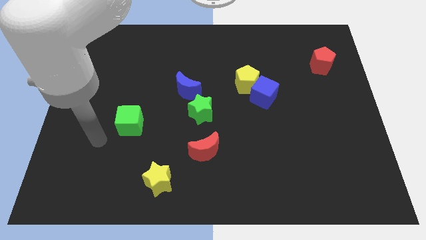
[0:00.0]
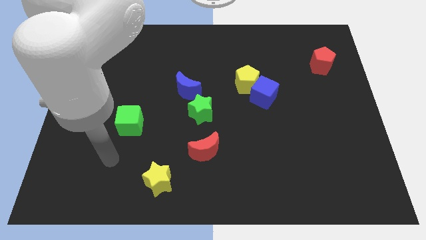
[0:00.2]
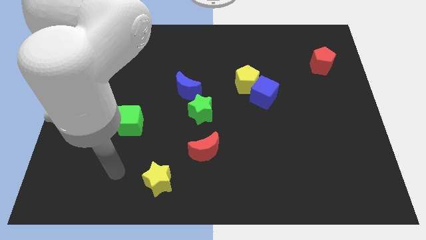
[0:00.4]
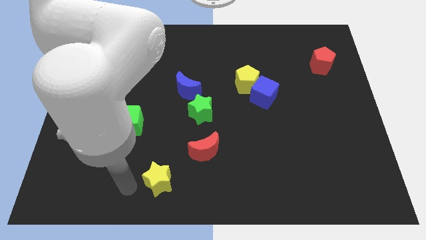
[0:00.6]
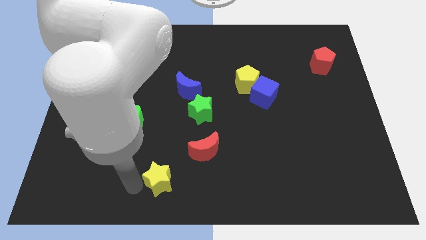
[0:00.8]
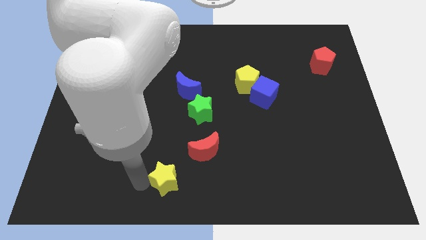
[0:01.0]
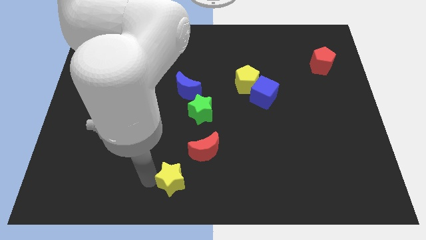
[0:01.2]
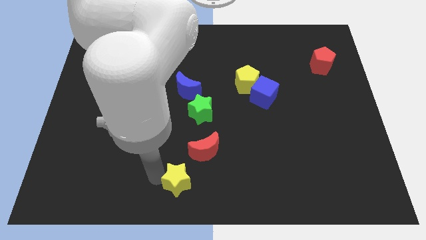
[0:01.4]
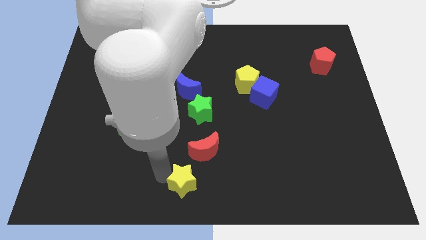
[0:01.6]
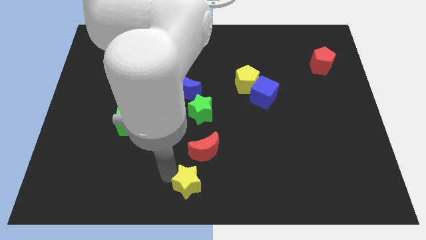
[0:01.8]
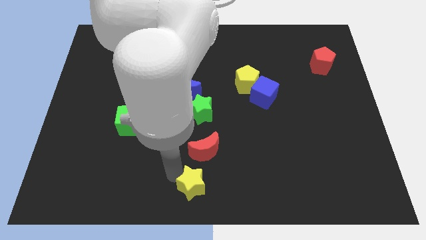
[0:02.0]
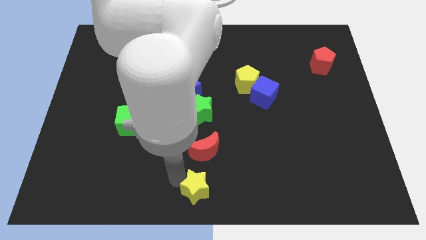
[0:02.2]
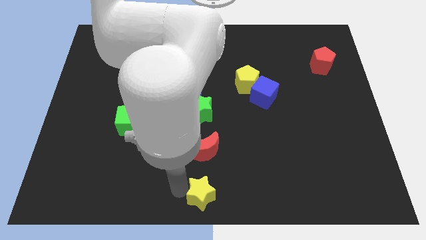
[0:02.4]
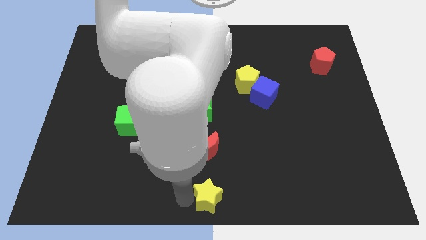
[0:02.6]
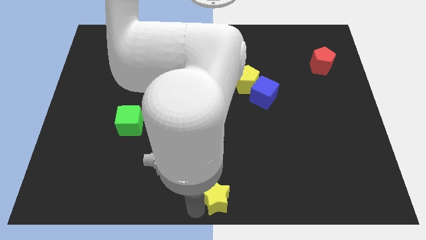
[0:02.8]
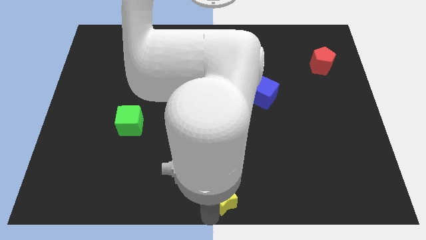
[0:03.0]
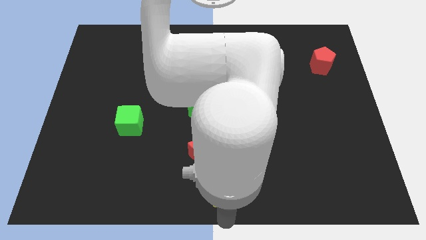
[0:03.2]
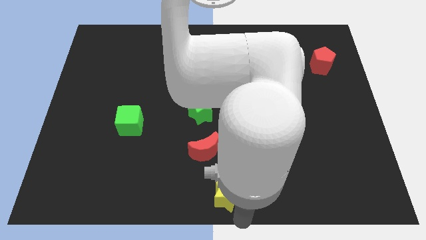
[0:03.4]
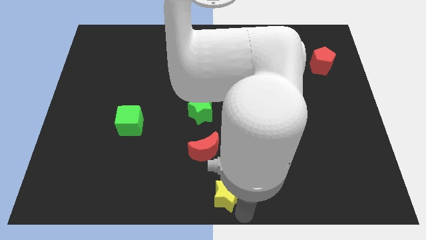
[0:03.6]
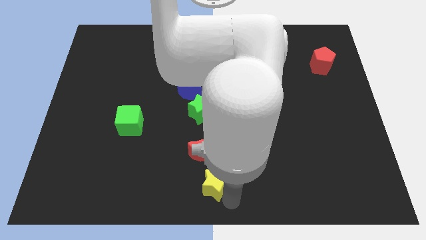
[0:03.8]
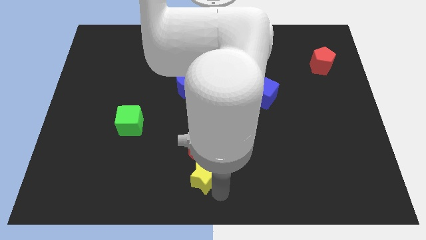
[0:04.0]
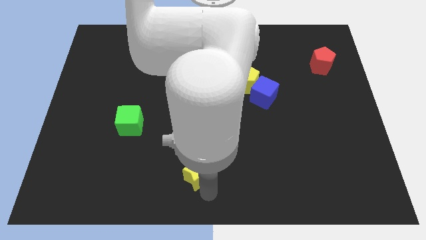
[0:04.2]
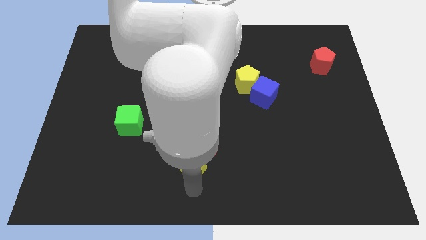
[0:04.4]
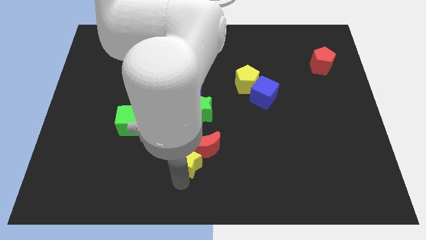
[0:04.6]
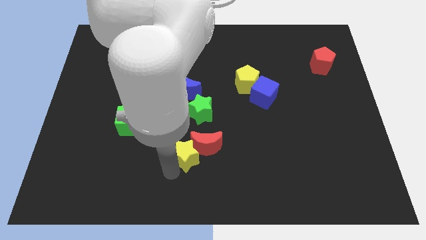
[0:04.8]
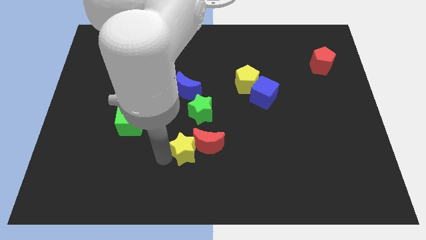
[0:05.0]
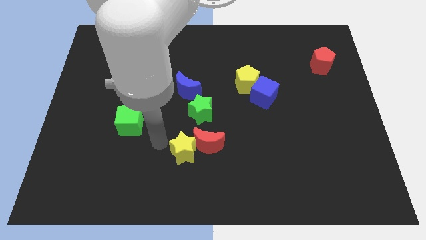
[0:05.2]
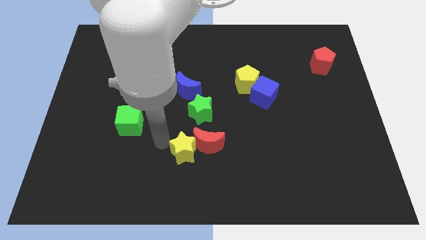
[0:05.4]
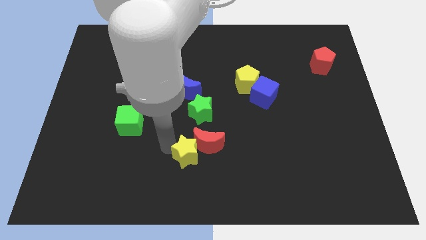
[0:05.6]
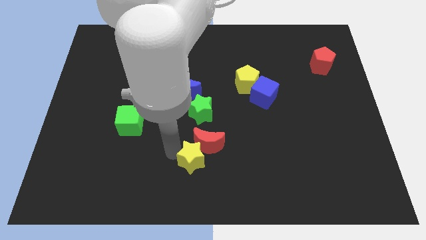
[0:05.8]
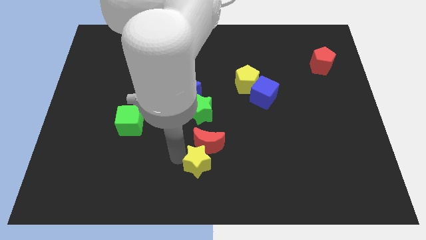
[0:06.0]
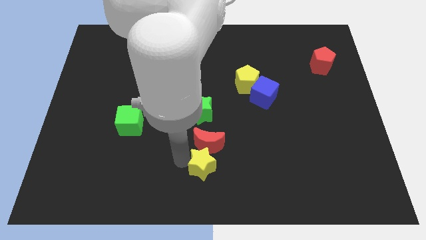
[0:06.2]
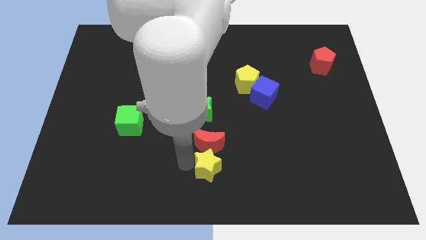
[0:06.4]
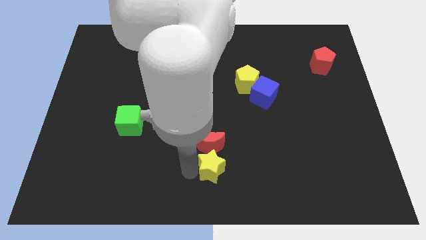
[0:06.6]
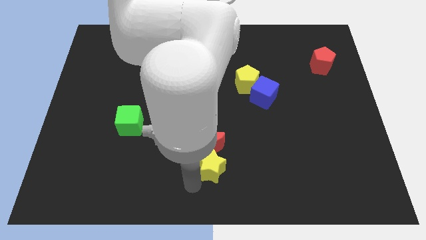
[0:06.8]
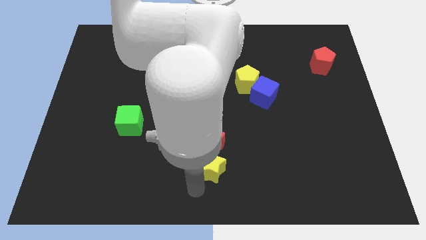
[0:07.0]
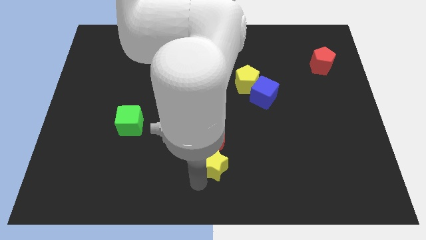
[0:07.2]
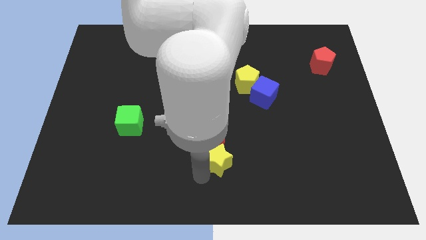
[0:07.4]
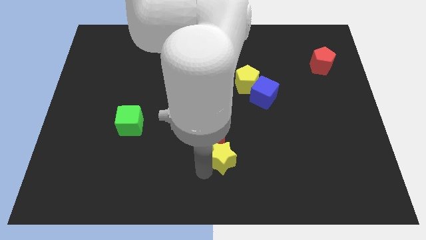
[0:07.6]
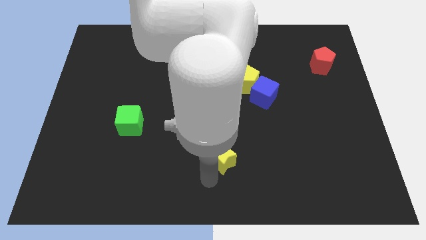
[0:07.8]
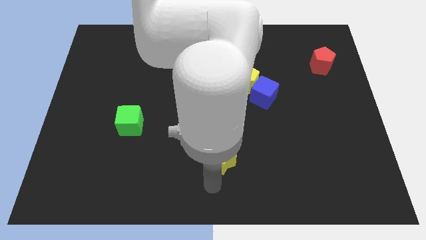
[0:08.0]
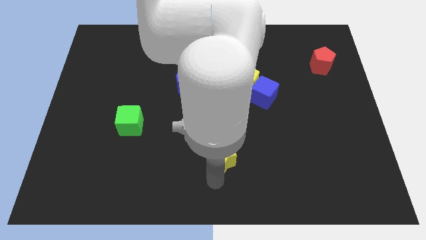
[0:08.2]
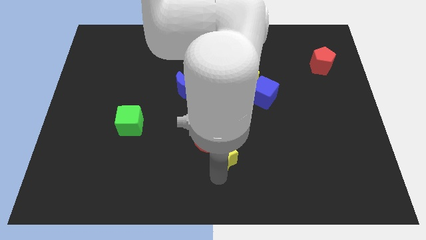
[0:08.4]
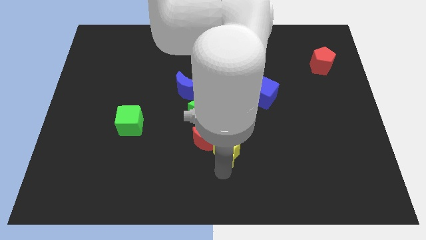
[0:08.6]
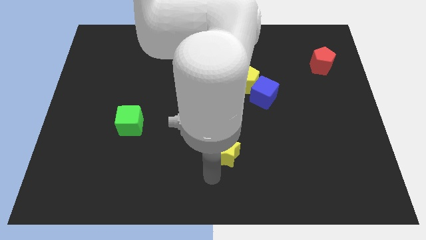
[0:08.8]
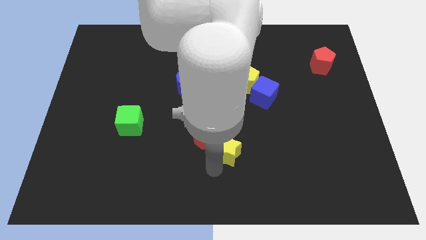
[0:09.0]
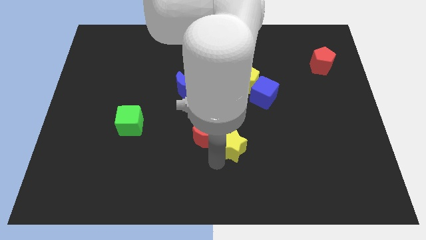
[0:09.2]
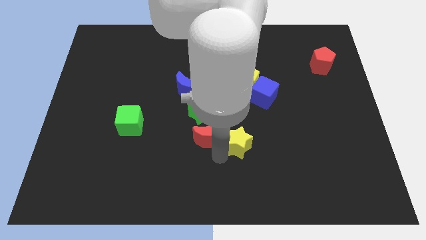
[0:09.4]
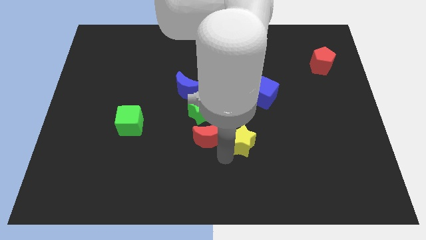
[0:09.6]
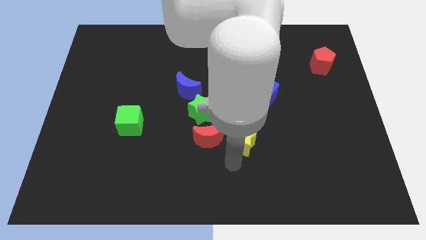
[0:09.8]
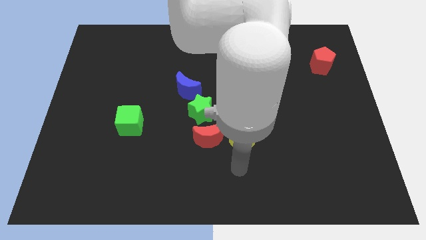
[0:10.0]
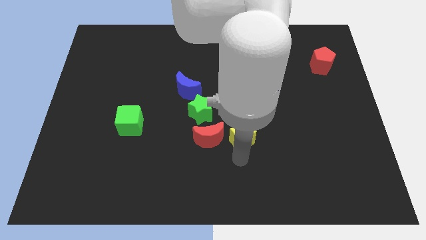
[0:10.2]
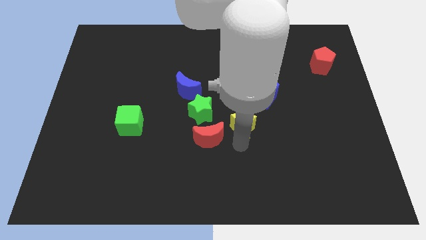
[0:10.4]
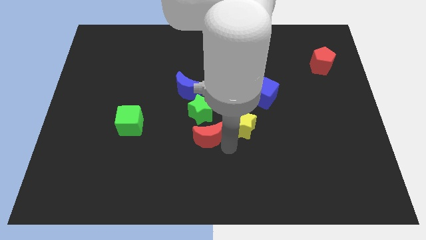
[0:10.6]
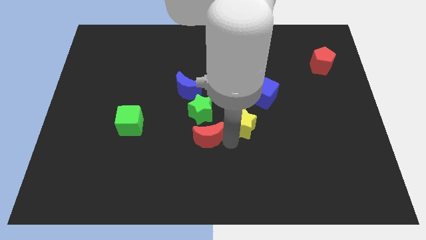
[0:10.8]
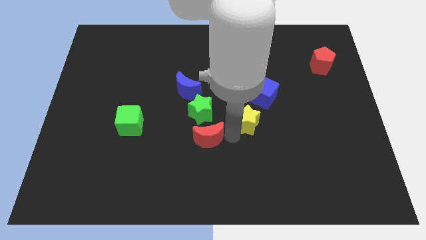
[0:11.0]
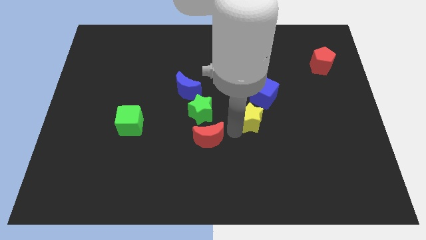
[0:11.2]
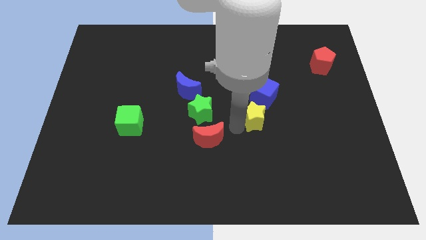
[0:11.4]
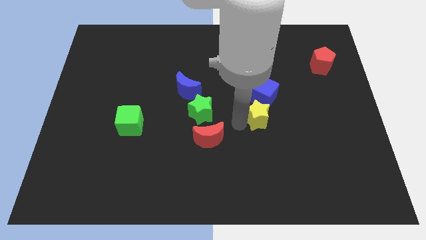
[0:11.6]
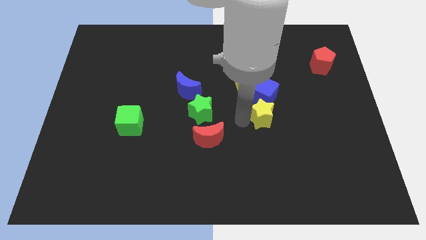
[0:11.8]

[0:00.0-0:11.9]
slide the yellow star to the blue cube
